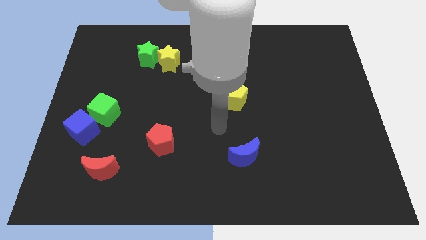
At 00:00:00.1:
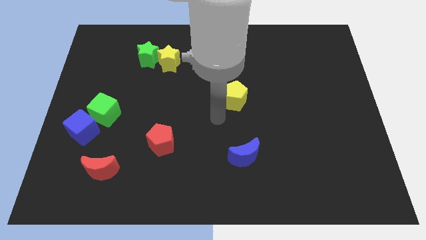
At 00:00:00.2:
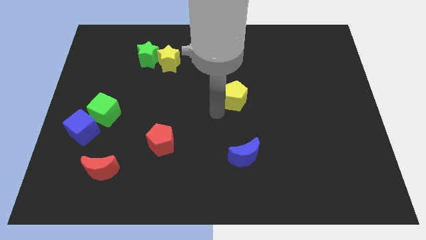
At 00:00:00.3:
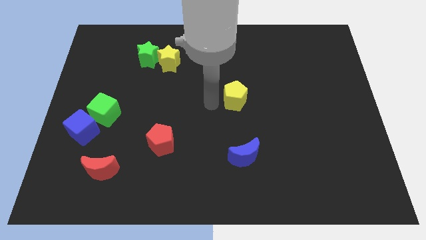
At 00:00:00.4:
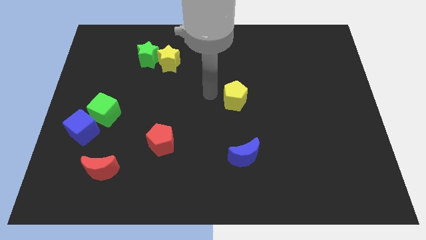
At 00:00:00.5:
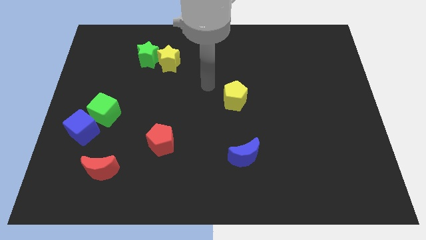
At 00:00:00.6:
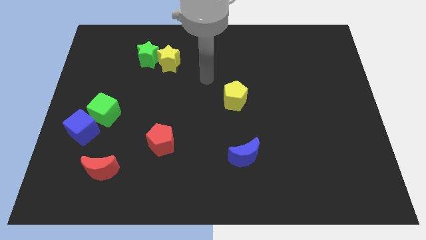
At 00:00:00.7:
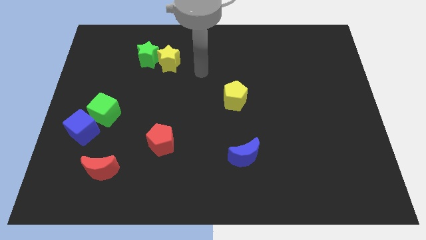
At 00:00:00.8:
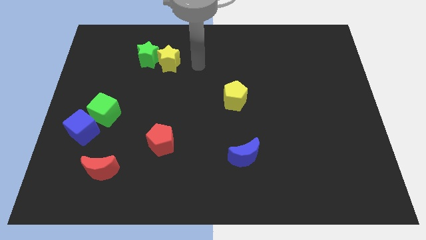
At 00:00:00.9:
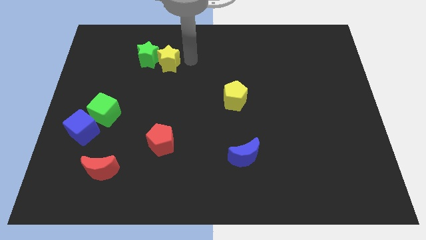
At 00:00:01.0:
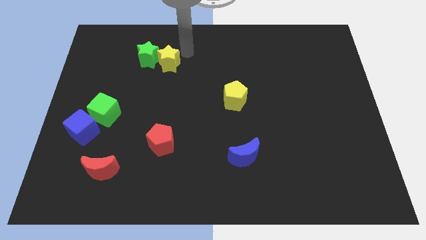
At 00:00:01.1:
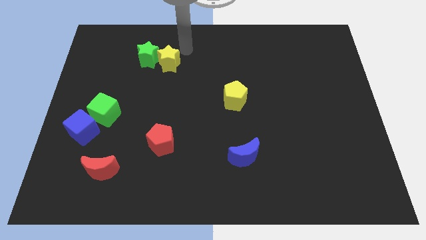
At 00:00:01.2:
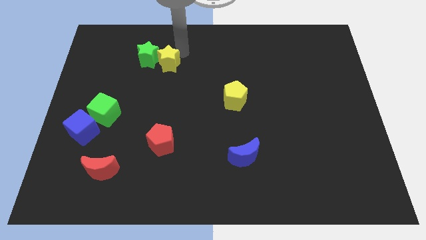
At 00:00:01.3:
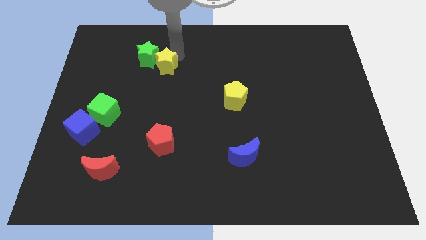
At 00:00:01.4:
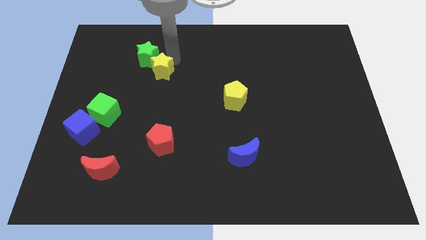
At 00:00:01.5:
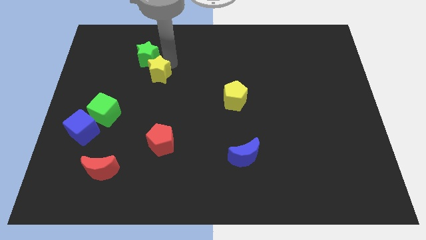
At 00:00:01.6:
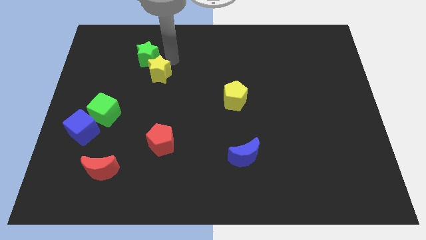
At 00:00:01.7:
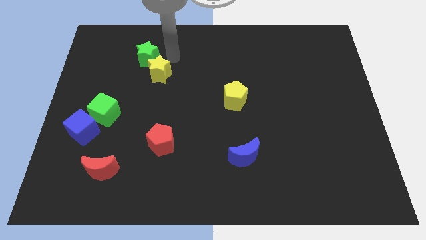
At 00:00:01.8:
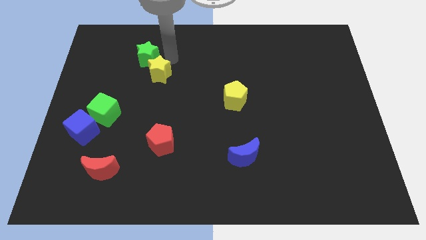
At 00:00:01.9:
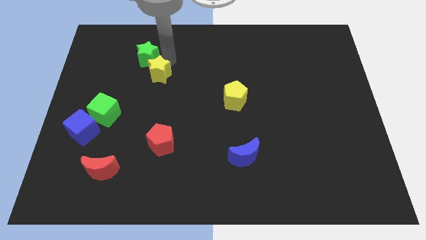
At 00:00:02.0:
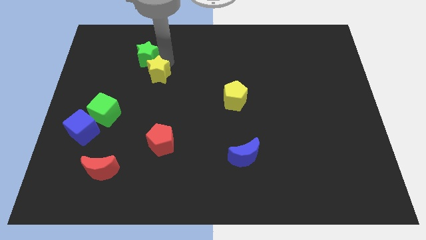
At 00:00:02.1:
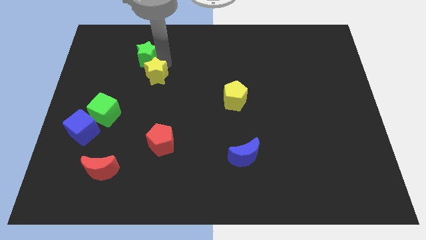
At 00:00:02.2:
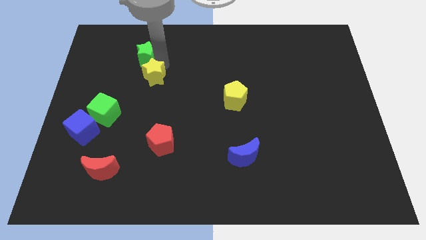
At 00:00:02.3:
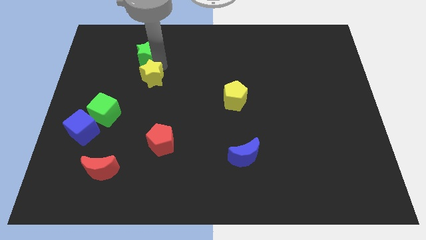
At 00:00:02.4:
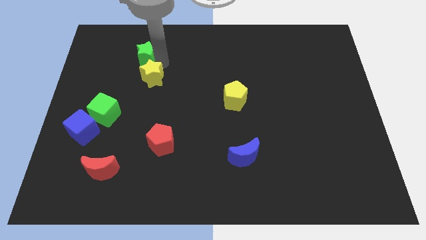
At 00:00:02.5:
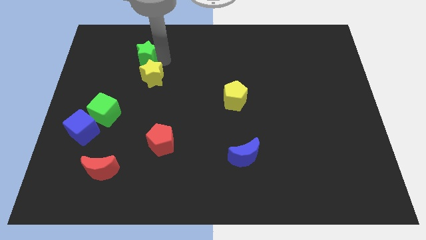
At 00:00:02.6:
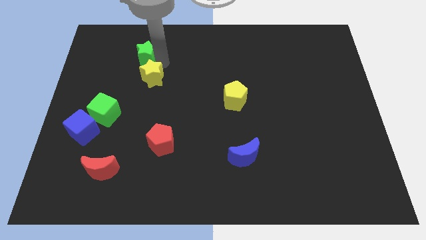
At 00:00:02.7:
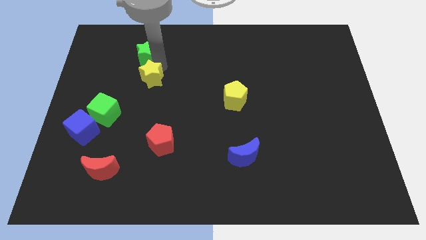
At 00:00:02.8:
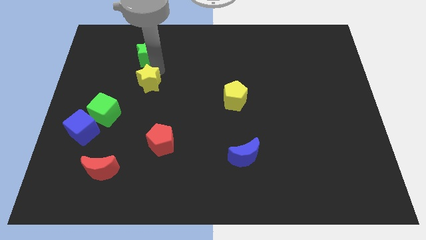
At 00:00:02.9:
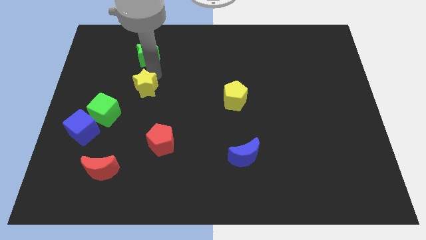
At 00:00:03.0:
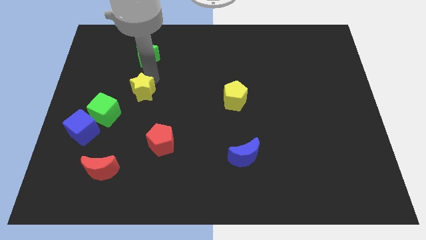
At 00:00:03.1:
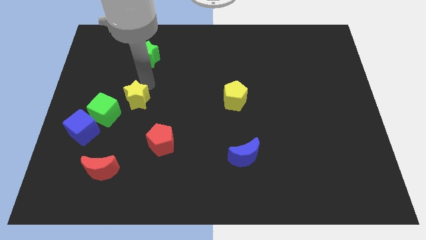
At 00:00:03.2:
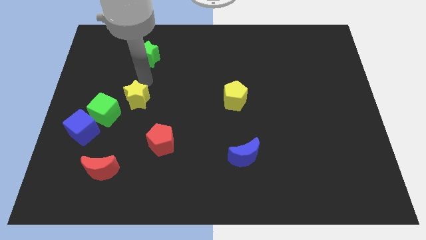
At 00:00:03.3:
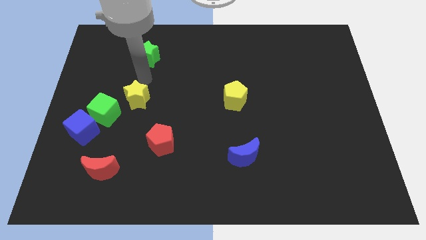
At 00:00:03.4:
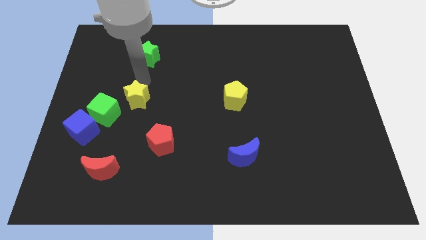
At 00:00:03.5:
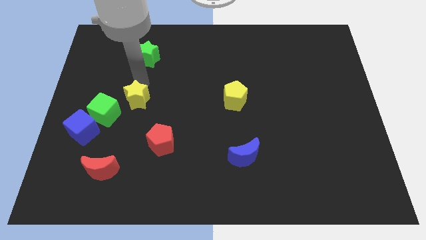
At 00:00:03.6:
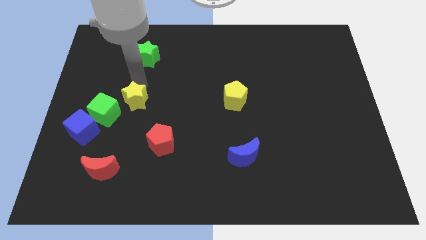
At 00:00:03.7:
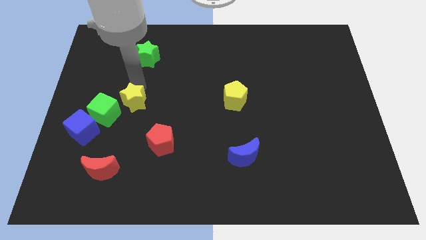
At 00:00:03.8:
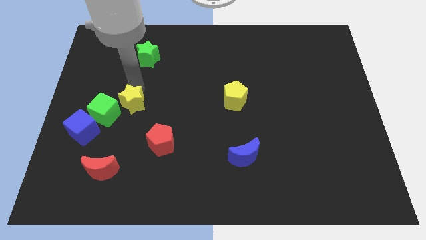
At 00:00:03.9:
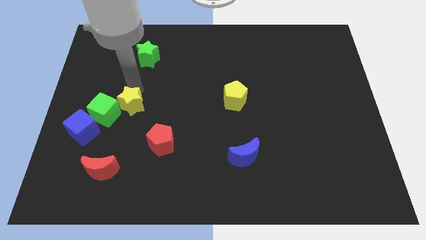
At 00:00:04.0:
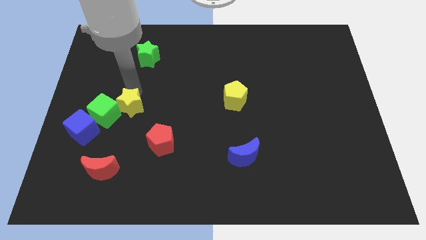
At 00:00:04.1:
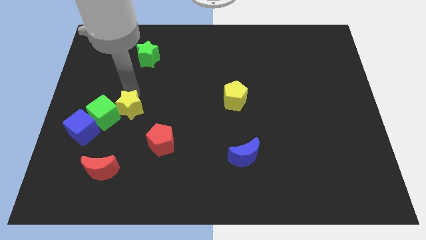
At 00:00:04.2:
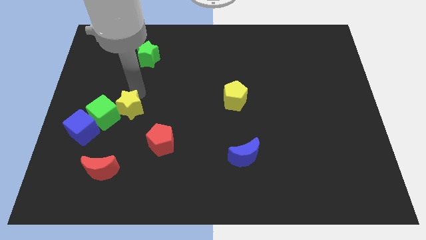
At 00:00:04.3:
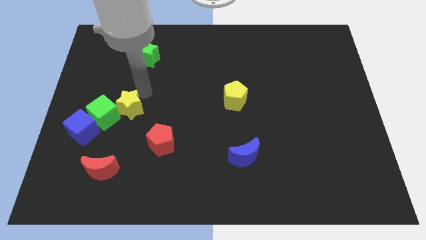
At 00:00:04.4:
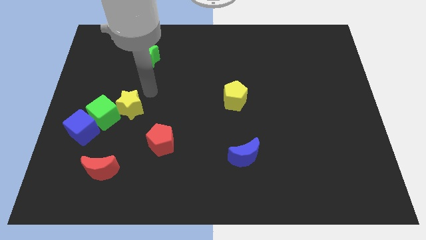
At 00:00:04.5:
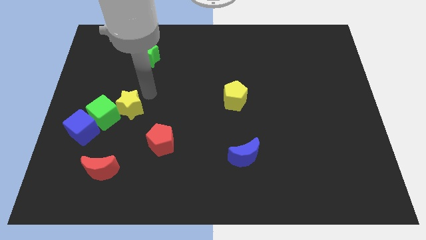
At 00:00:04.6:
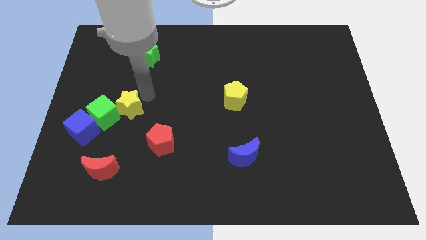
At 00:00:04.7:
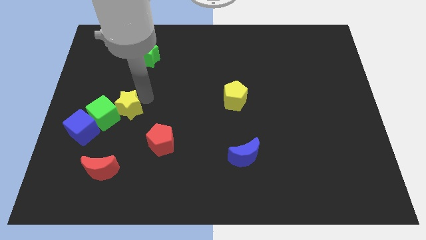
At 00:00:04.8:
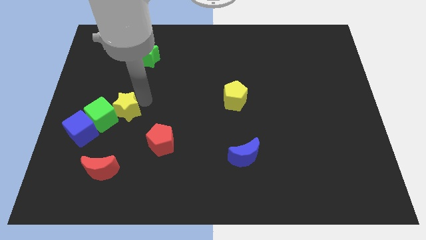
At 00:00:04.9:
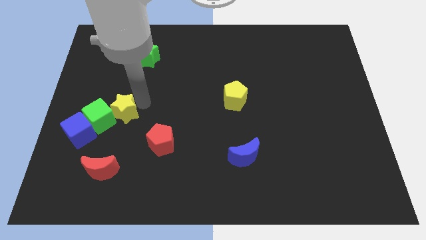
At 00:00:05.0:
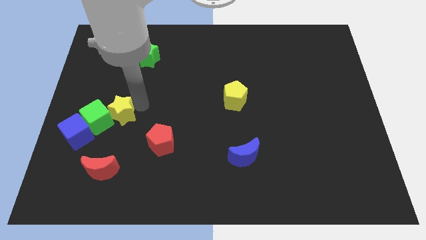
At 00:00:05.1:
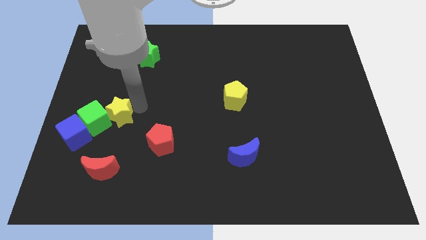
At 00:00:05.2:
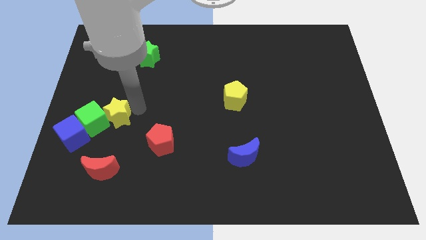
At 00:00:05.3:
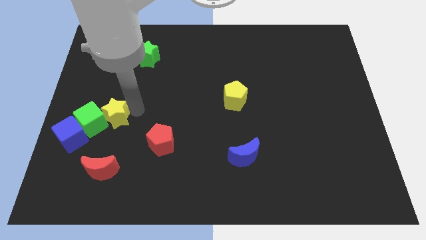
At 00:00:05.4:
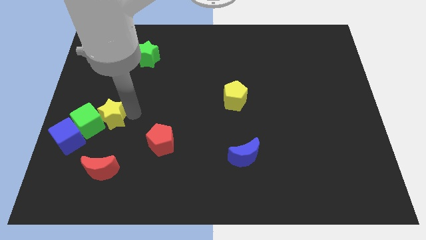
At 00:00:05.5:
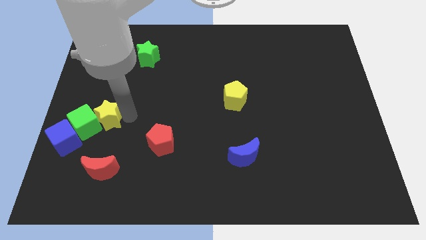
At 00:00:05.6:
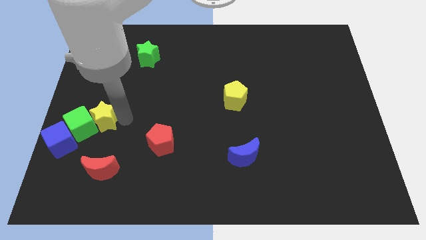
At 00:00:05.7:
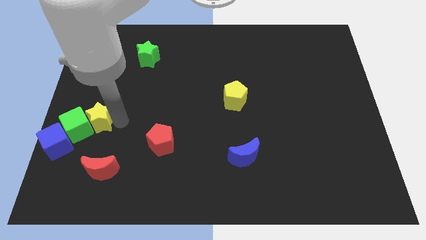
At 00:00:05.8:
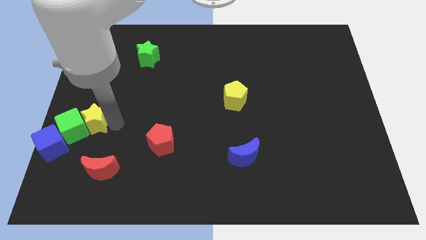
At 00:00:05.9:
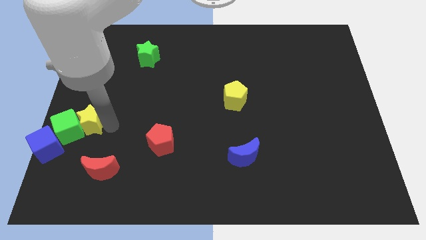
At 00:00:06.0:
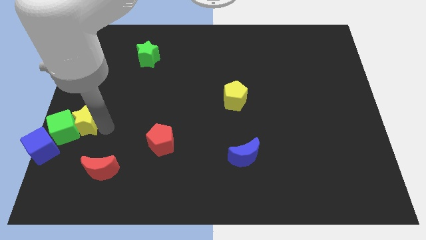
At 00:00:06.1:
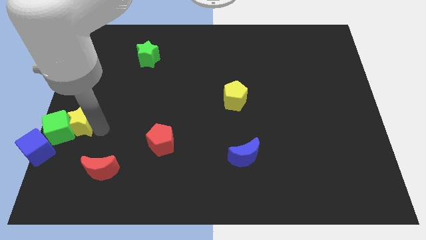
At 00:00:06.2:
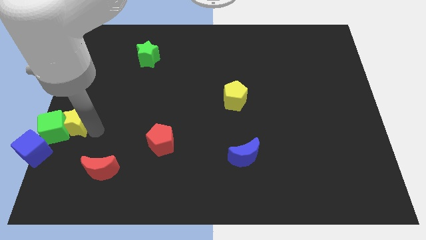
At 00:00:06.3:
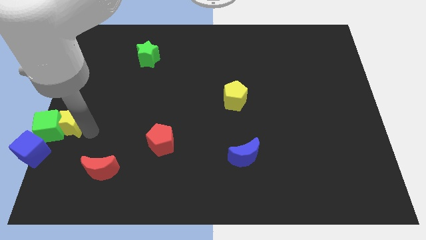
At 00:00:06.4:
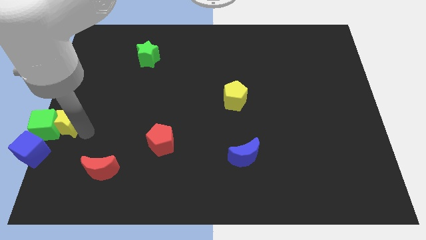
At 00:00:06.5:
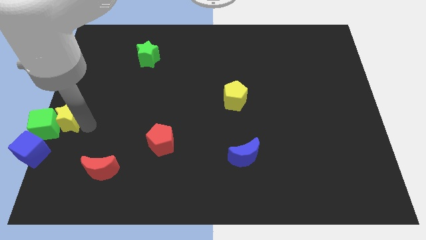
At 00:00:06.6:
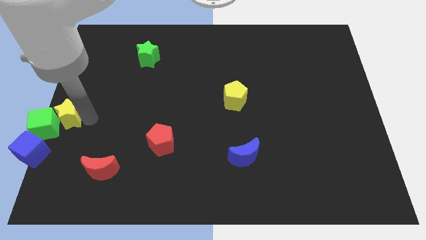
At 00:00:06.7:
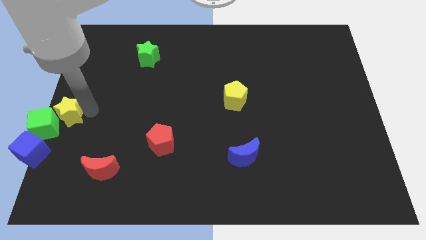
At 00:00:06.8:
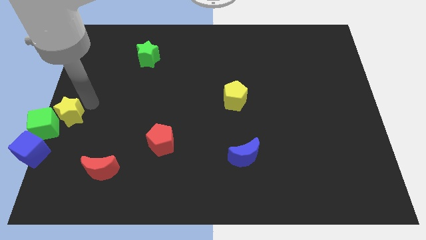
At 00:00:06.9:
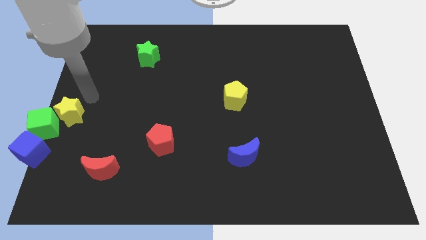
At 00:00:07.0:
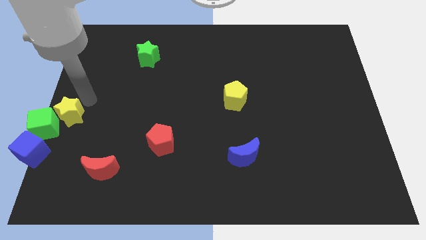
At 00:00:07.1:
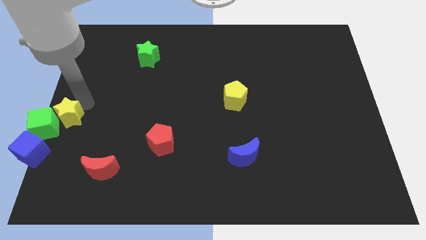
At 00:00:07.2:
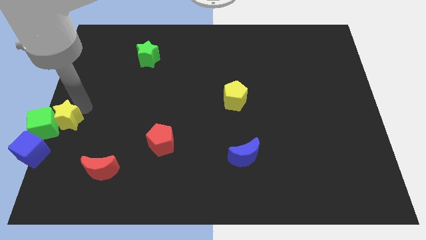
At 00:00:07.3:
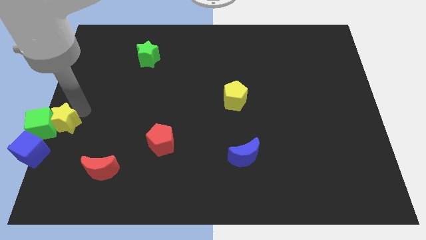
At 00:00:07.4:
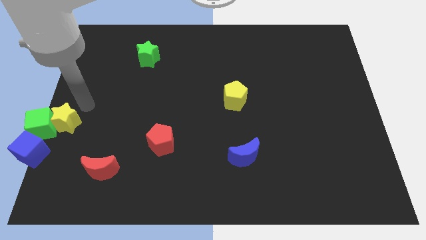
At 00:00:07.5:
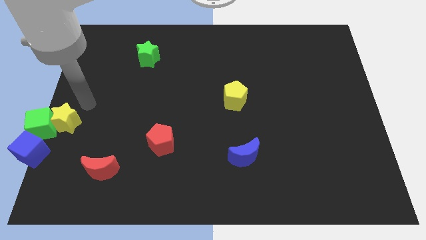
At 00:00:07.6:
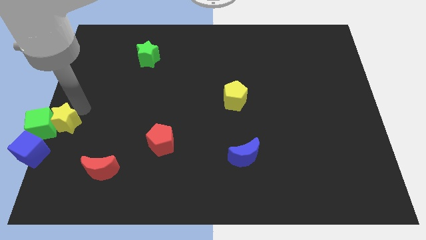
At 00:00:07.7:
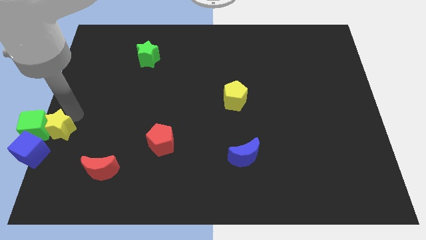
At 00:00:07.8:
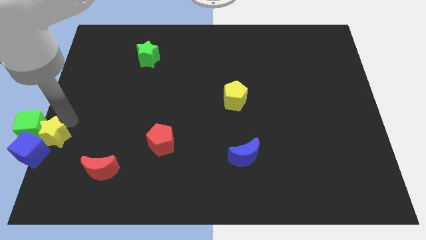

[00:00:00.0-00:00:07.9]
slide the yellow star towards the blue cube
